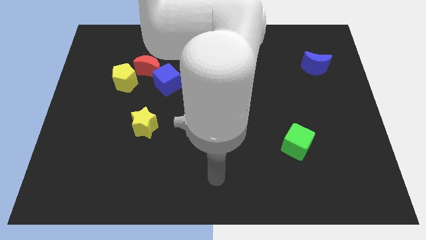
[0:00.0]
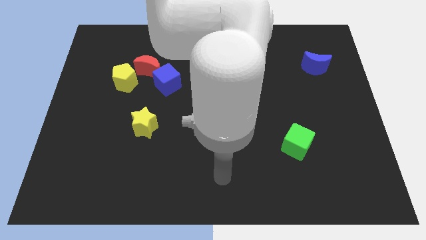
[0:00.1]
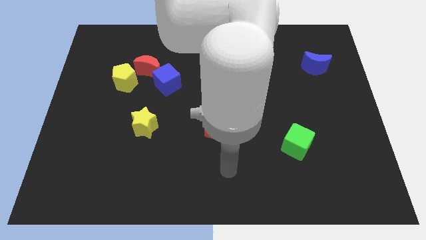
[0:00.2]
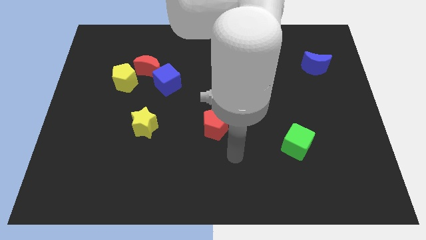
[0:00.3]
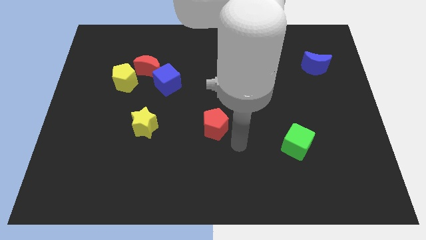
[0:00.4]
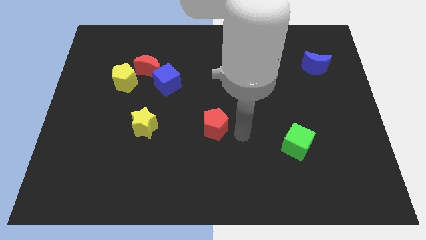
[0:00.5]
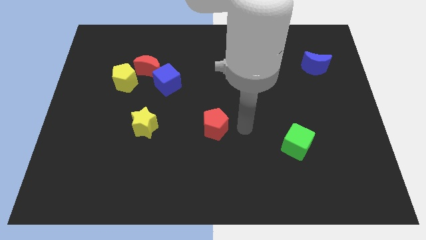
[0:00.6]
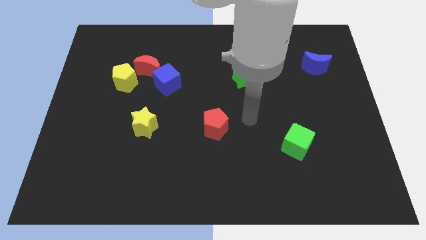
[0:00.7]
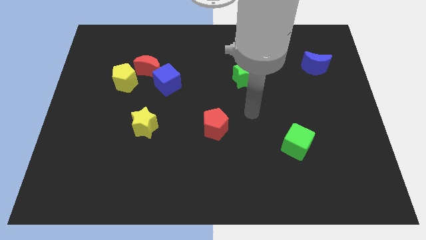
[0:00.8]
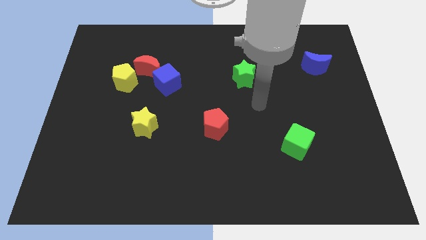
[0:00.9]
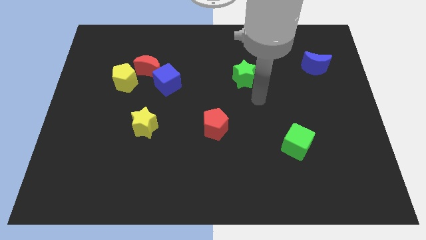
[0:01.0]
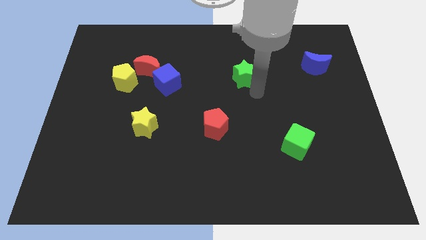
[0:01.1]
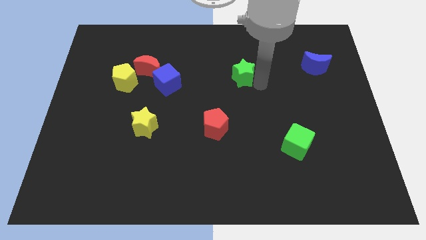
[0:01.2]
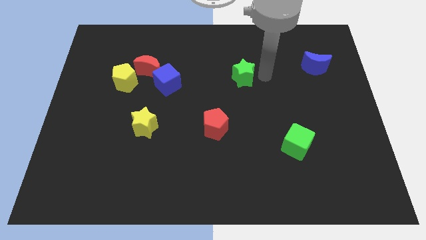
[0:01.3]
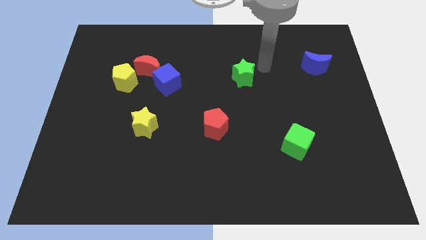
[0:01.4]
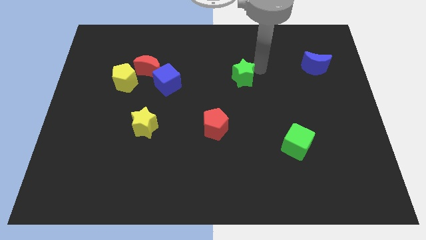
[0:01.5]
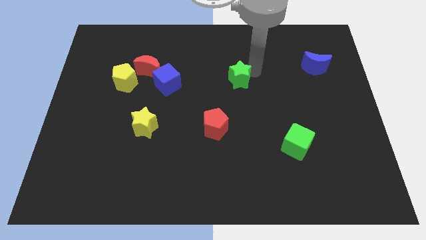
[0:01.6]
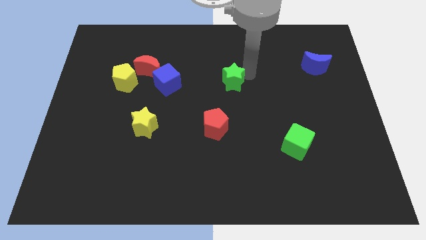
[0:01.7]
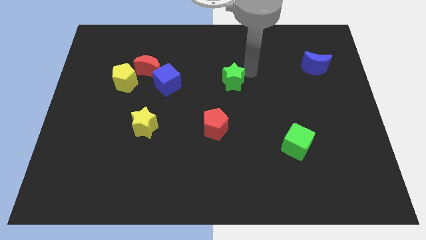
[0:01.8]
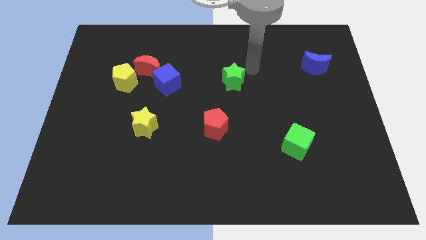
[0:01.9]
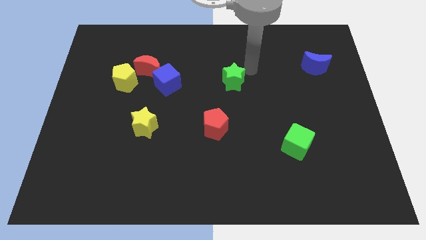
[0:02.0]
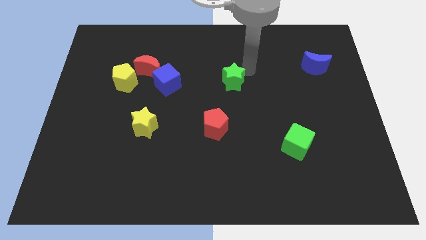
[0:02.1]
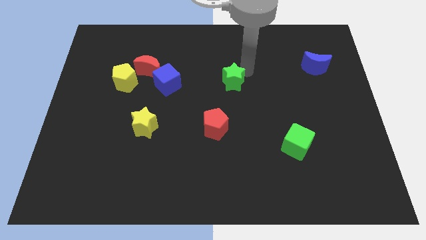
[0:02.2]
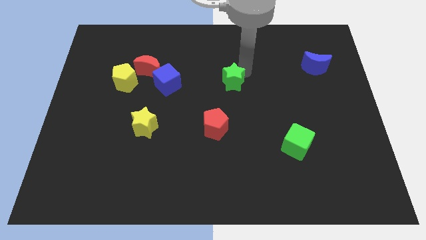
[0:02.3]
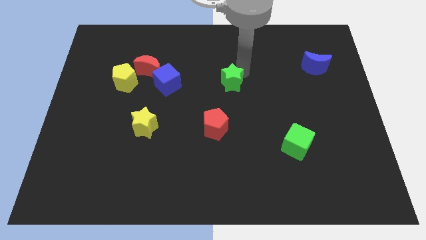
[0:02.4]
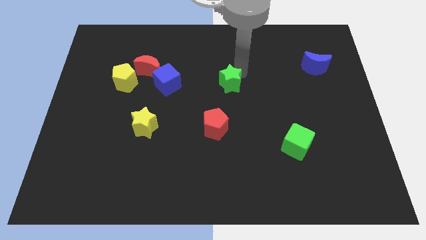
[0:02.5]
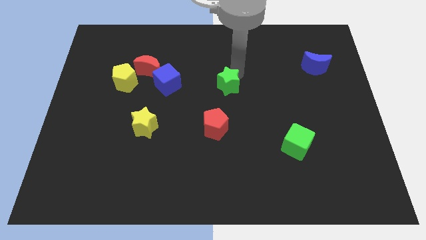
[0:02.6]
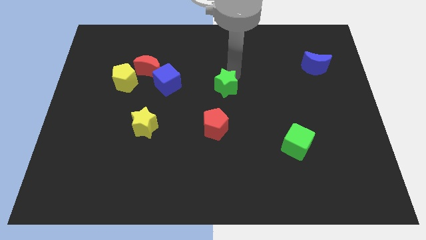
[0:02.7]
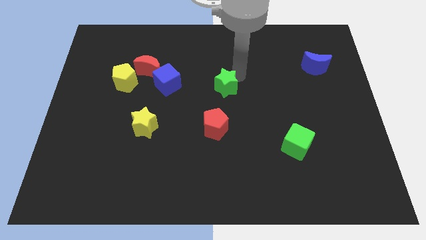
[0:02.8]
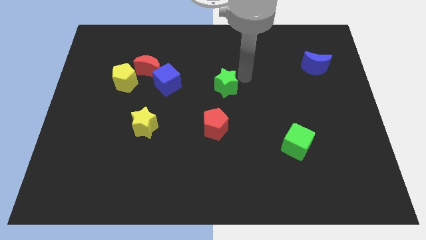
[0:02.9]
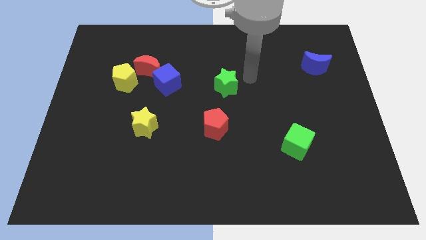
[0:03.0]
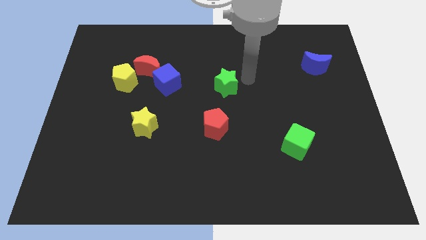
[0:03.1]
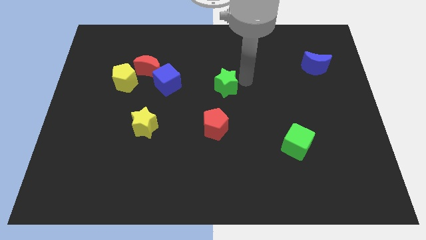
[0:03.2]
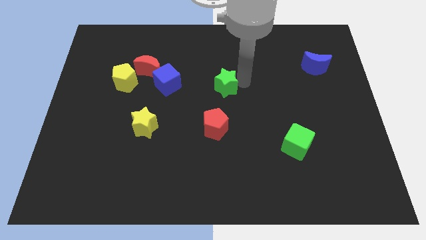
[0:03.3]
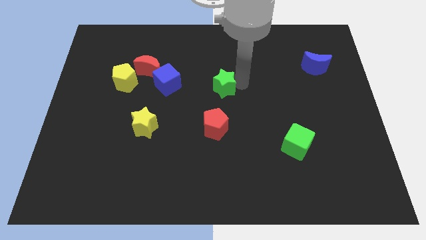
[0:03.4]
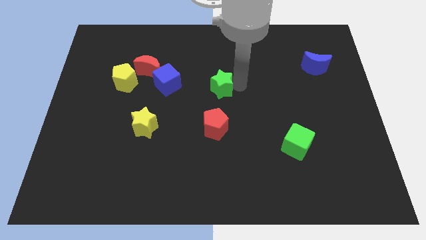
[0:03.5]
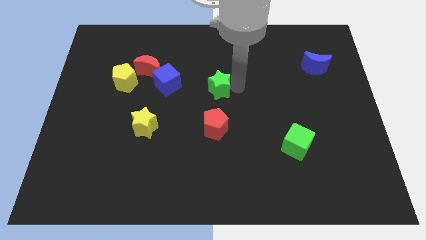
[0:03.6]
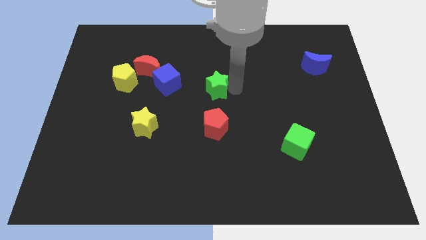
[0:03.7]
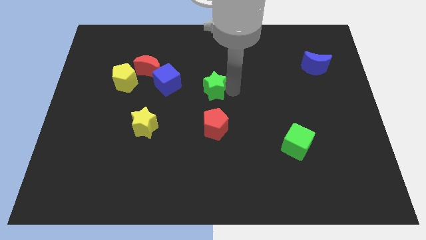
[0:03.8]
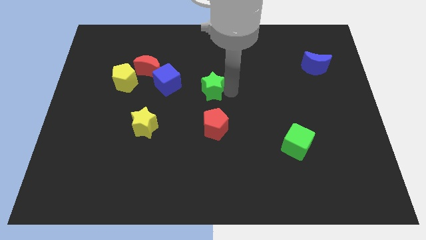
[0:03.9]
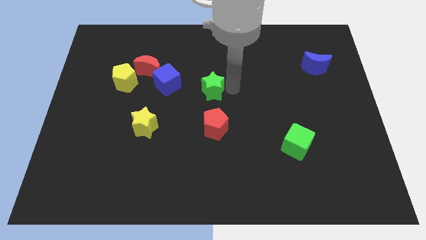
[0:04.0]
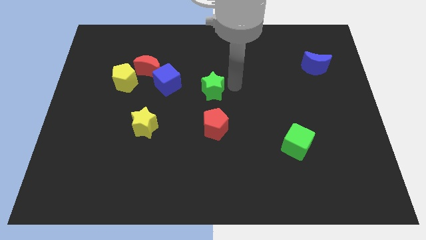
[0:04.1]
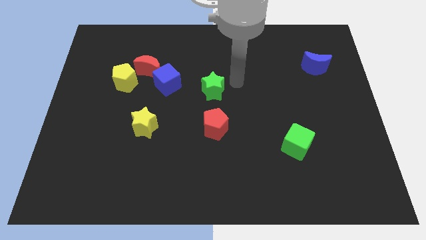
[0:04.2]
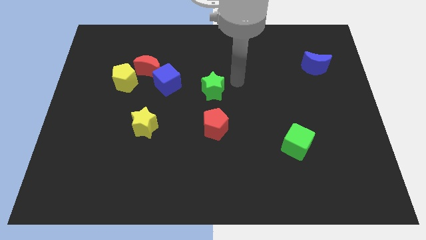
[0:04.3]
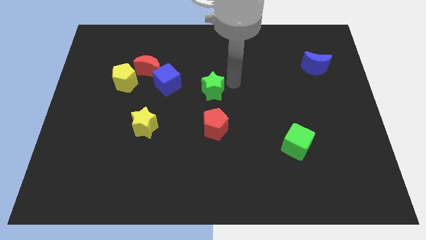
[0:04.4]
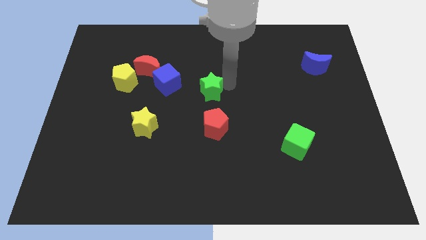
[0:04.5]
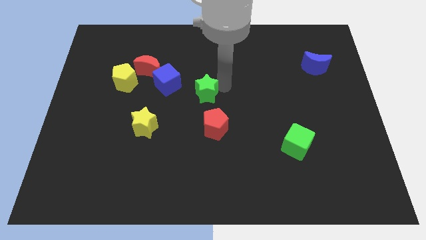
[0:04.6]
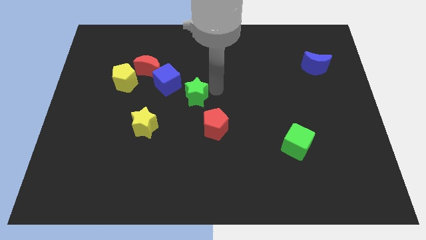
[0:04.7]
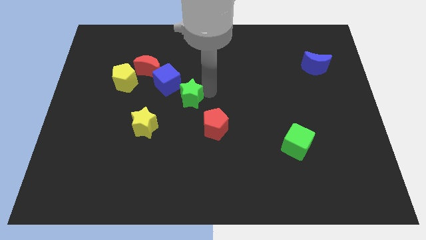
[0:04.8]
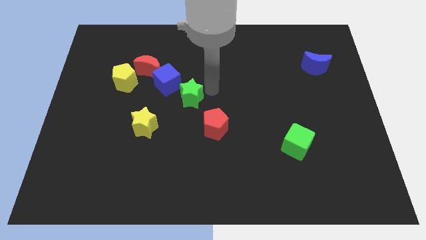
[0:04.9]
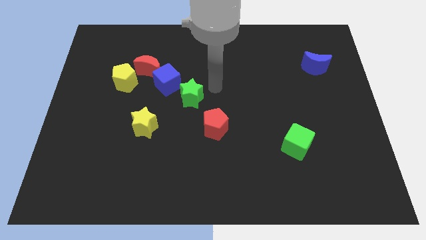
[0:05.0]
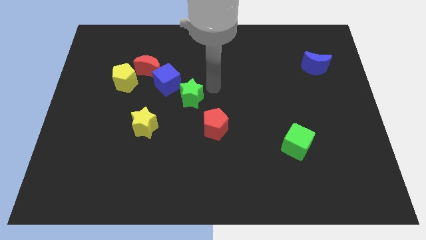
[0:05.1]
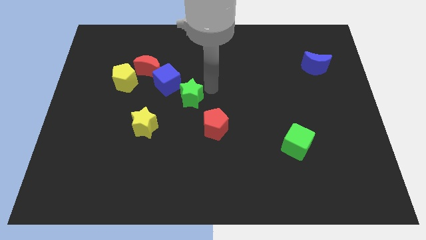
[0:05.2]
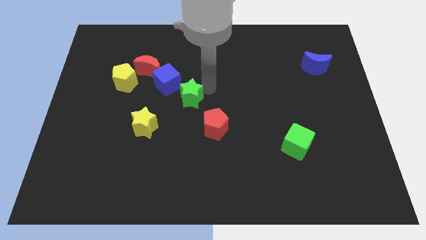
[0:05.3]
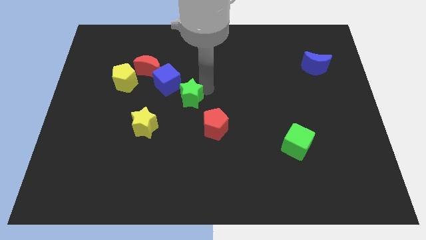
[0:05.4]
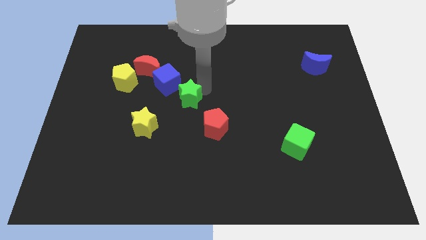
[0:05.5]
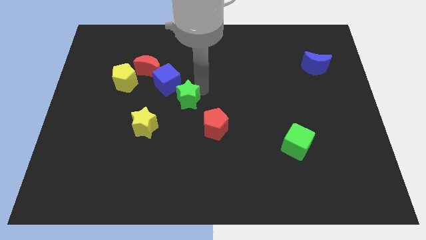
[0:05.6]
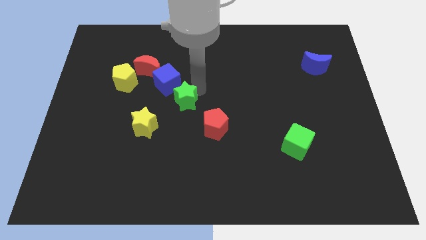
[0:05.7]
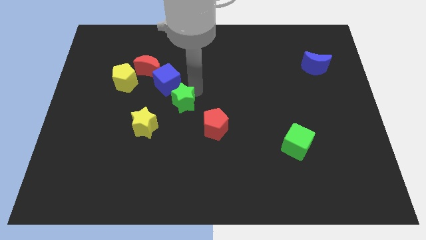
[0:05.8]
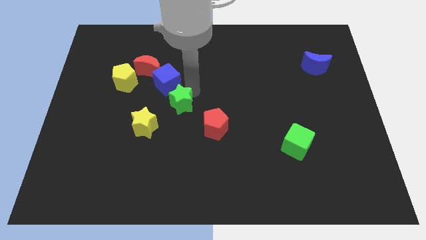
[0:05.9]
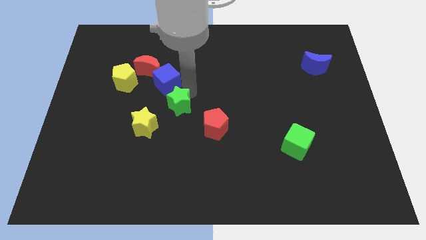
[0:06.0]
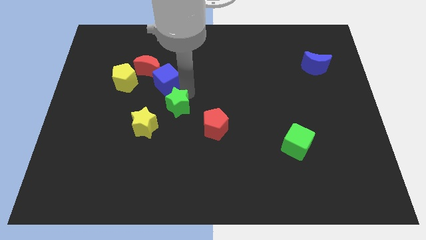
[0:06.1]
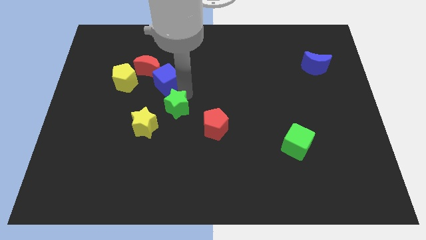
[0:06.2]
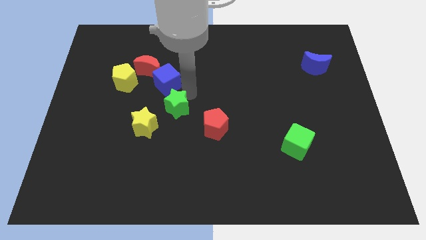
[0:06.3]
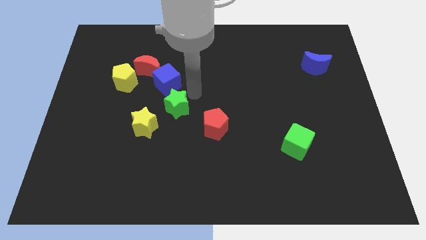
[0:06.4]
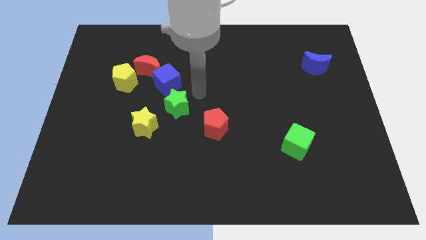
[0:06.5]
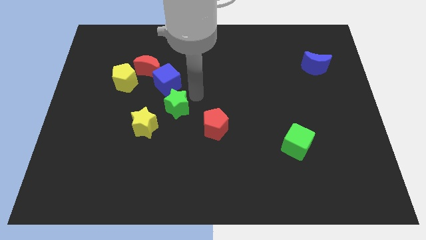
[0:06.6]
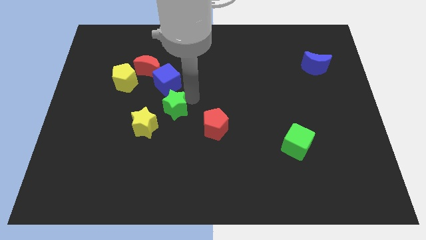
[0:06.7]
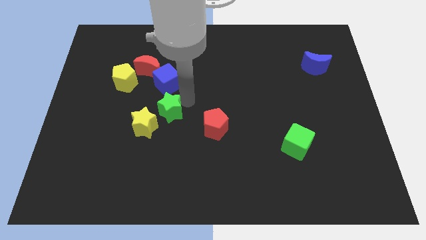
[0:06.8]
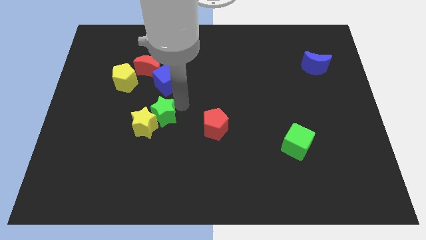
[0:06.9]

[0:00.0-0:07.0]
slide the green star towards the yellow star
